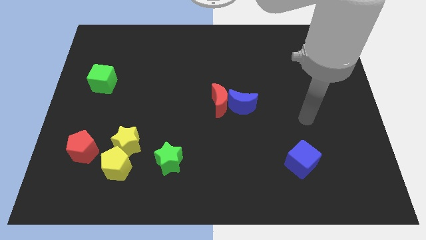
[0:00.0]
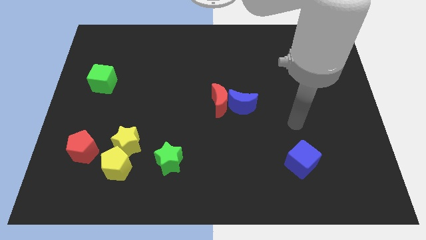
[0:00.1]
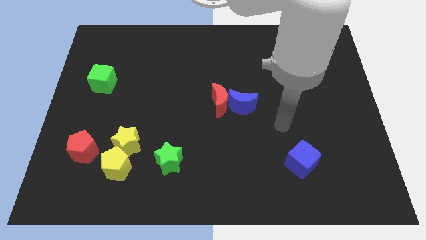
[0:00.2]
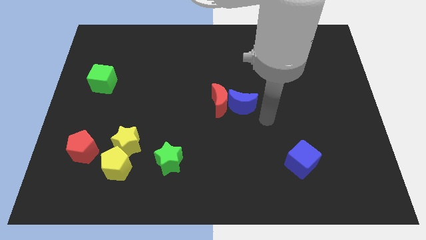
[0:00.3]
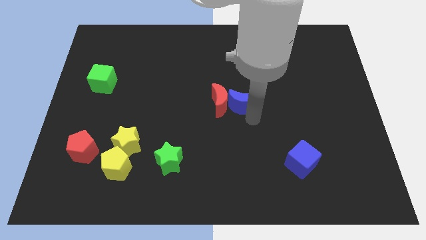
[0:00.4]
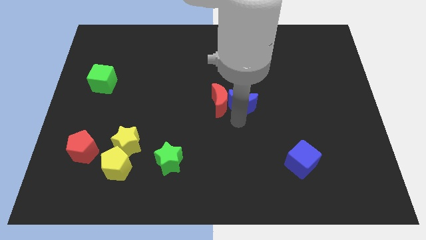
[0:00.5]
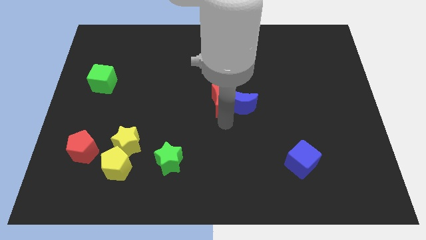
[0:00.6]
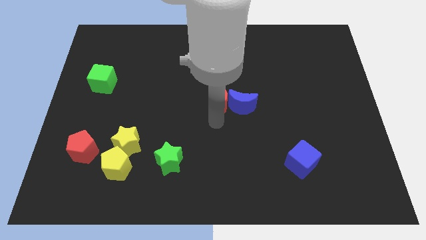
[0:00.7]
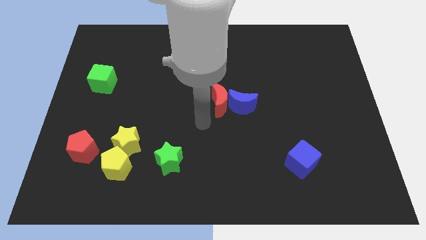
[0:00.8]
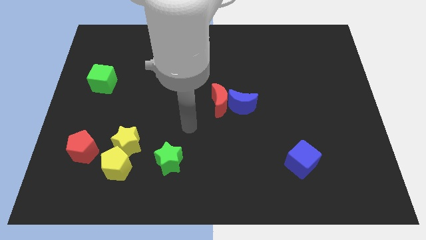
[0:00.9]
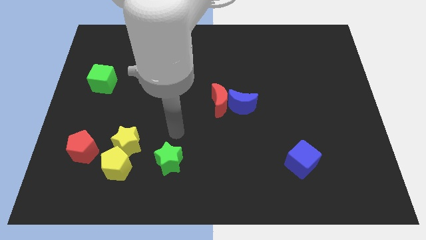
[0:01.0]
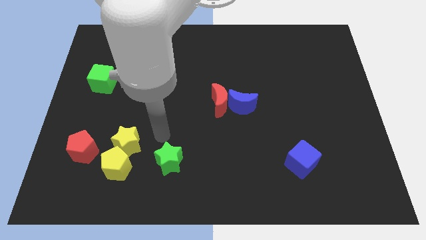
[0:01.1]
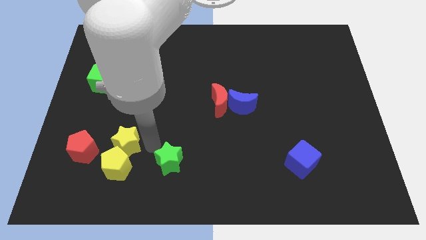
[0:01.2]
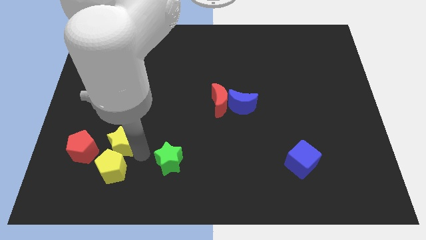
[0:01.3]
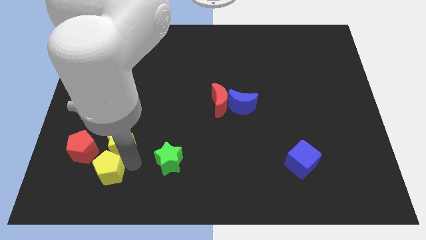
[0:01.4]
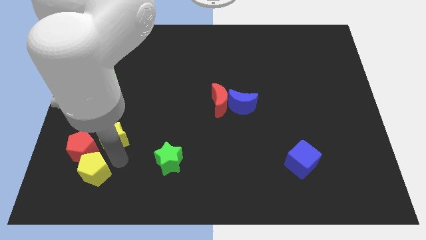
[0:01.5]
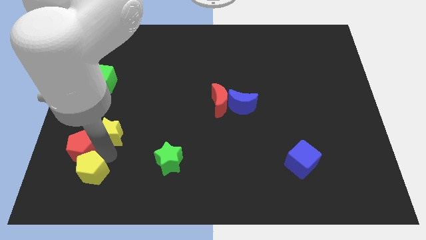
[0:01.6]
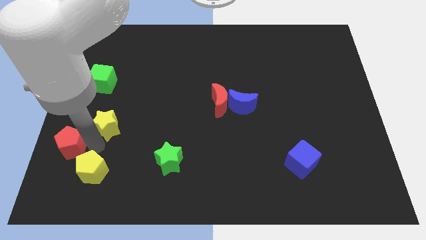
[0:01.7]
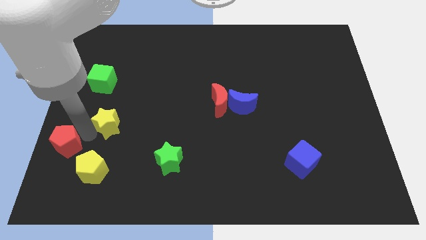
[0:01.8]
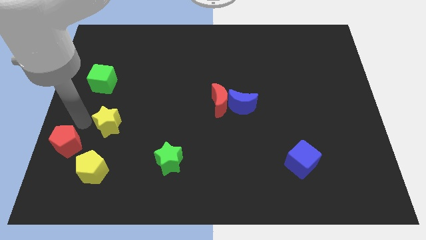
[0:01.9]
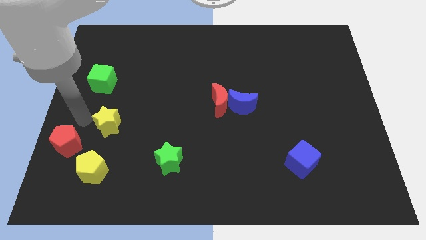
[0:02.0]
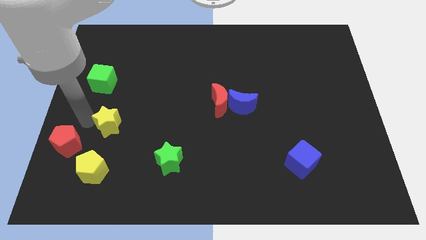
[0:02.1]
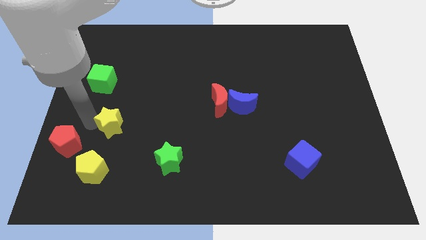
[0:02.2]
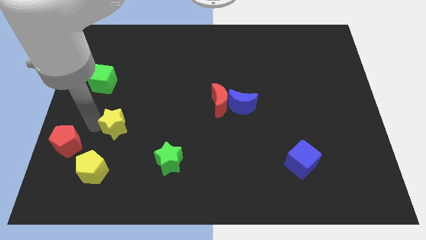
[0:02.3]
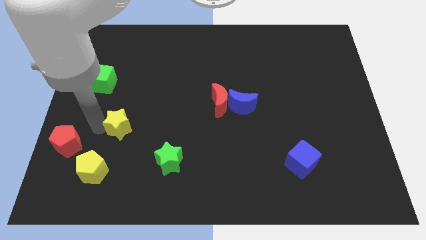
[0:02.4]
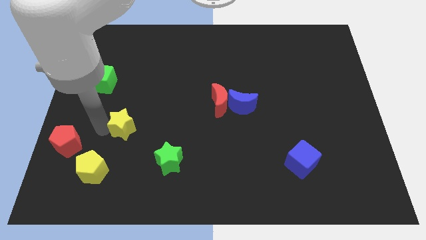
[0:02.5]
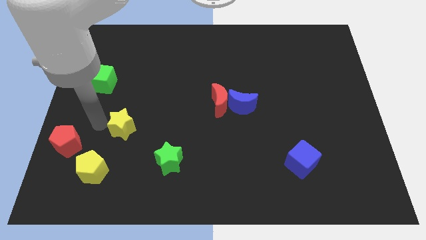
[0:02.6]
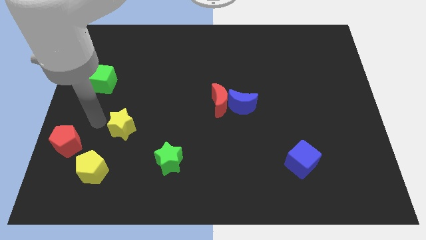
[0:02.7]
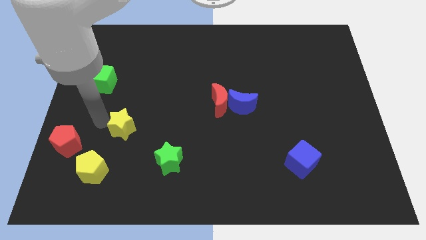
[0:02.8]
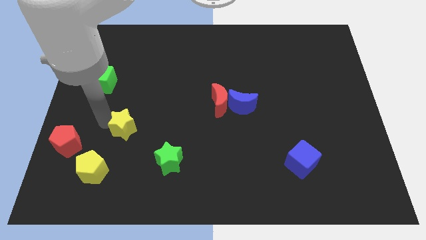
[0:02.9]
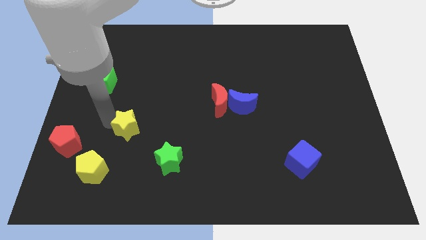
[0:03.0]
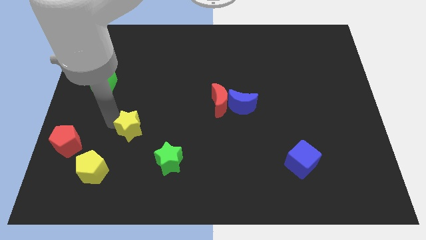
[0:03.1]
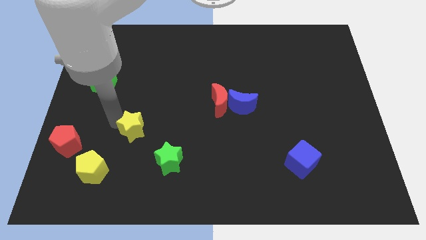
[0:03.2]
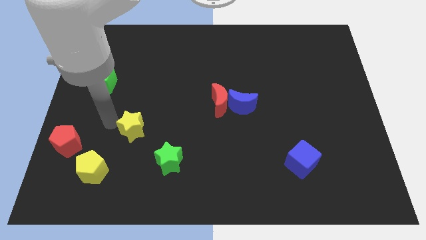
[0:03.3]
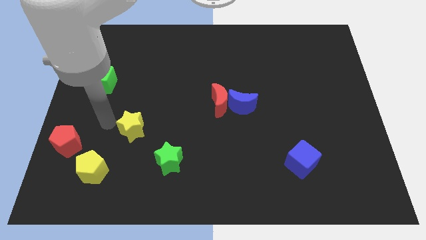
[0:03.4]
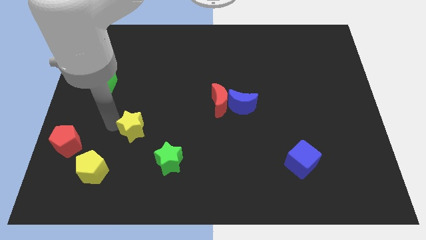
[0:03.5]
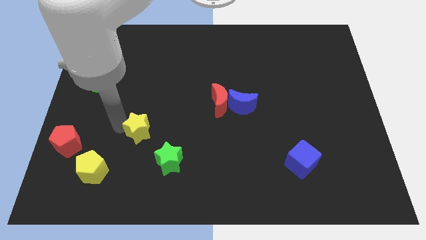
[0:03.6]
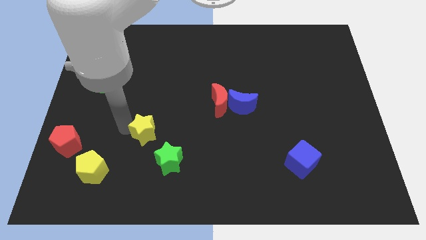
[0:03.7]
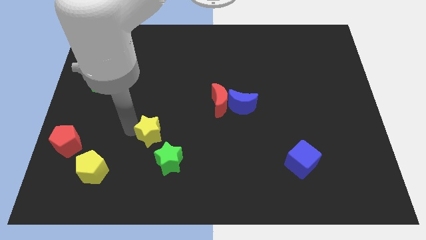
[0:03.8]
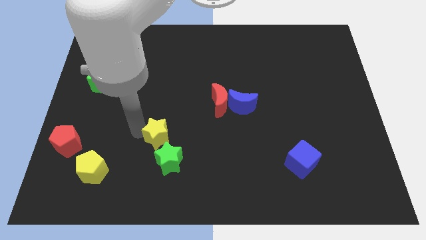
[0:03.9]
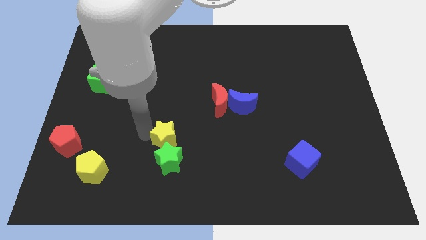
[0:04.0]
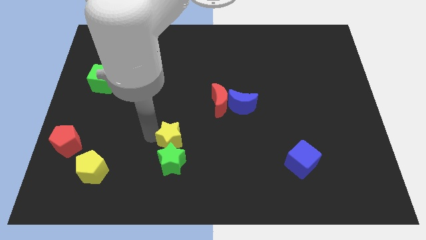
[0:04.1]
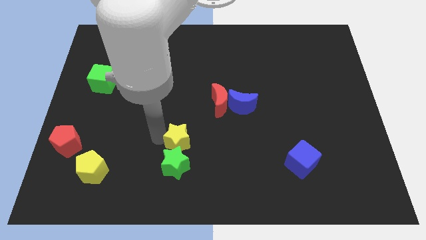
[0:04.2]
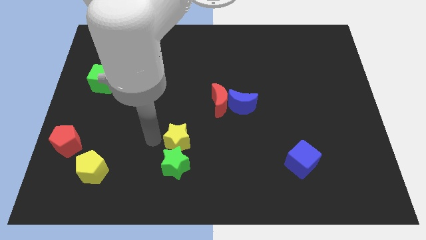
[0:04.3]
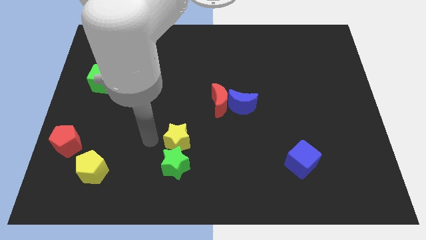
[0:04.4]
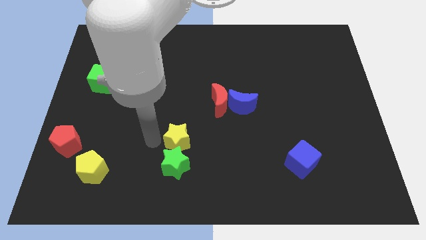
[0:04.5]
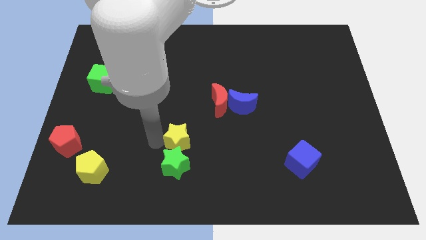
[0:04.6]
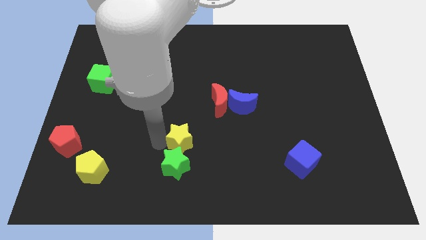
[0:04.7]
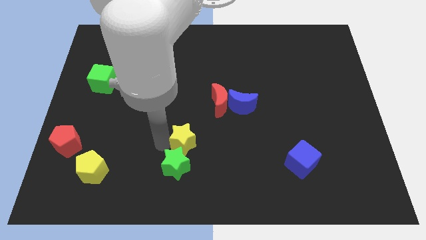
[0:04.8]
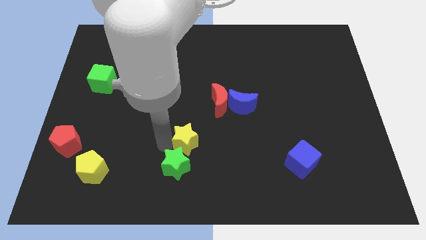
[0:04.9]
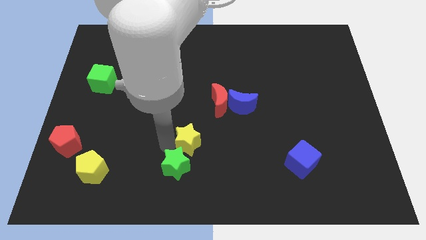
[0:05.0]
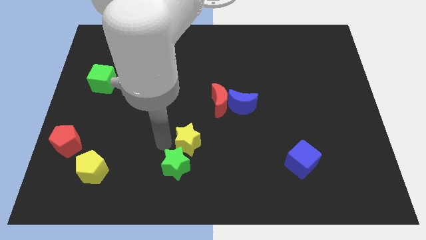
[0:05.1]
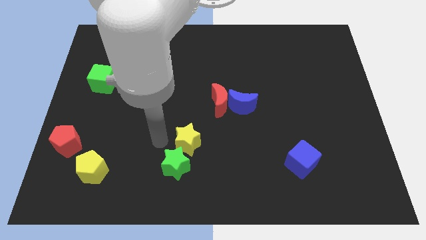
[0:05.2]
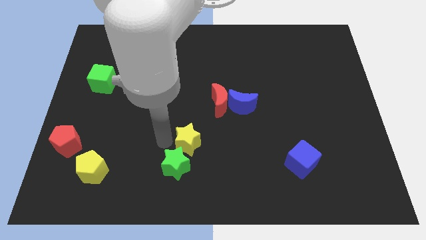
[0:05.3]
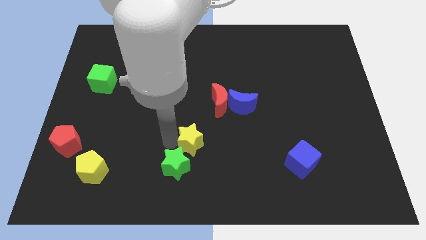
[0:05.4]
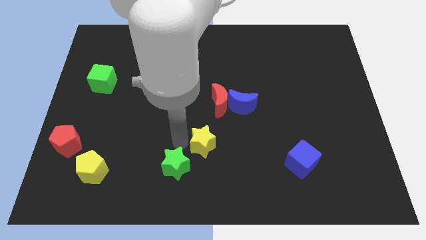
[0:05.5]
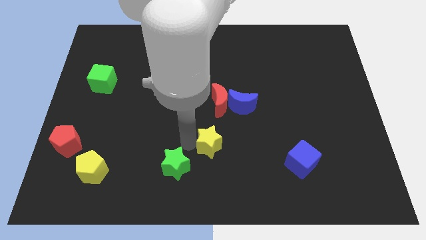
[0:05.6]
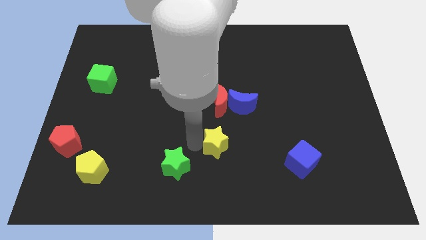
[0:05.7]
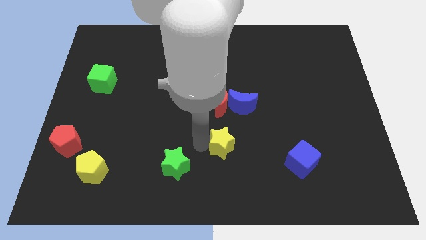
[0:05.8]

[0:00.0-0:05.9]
move the yellow star to the right

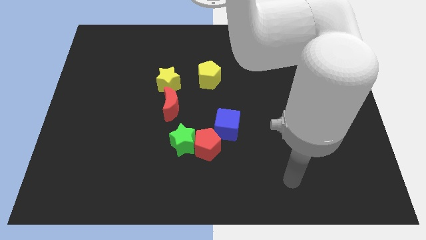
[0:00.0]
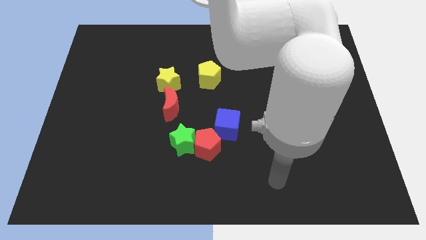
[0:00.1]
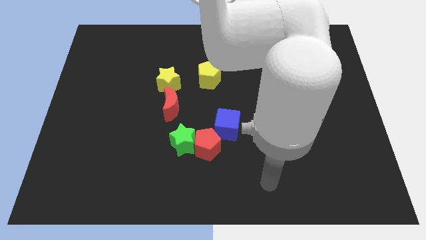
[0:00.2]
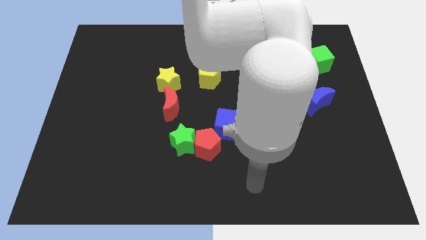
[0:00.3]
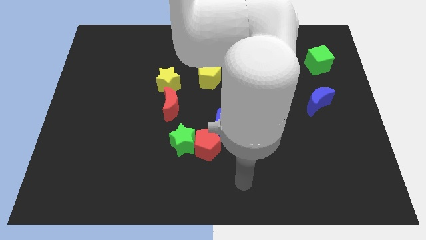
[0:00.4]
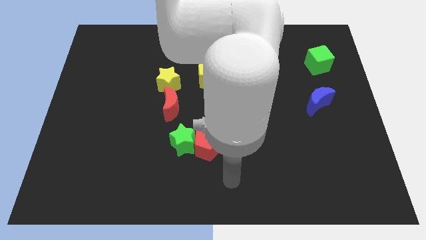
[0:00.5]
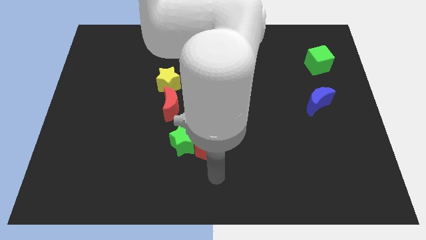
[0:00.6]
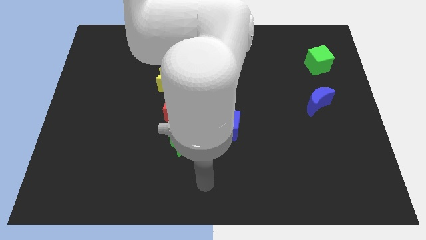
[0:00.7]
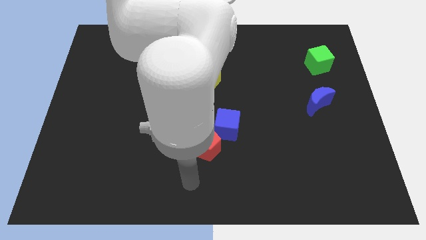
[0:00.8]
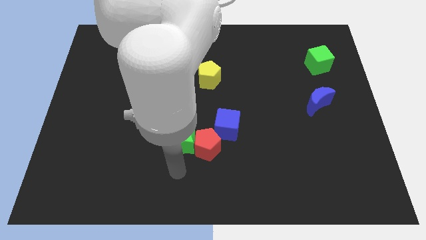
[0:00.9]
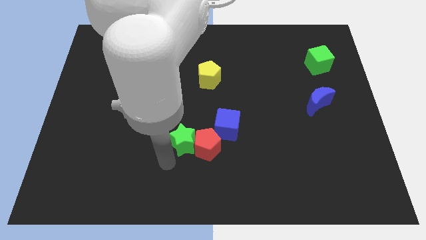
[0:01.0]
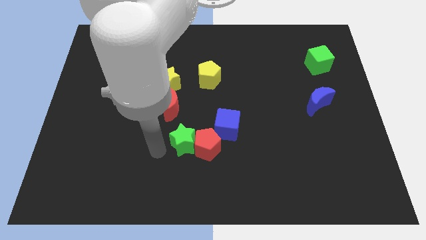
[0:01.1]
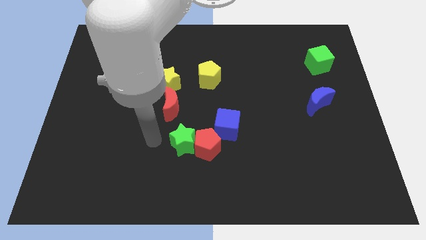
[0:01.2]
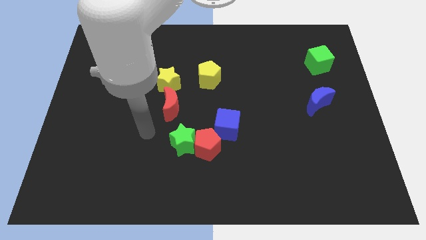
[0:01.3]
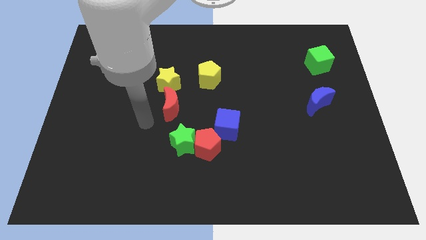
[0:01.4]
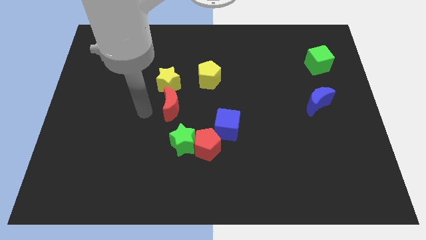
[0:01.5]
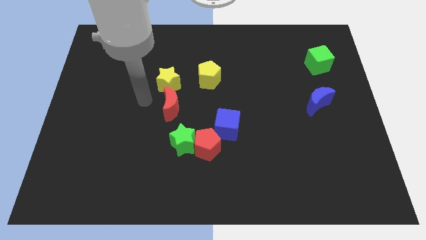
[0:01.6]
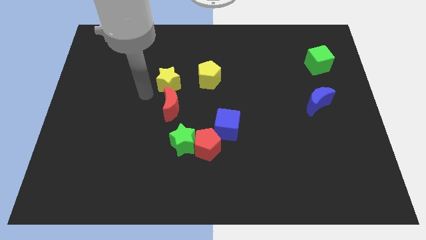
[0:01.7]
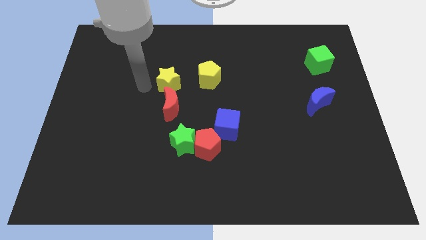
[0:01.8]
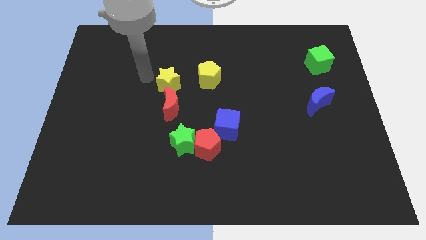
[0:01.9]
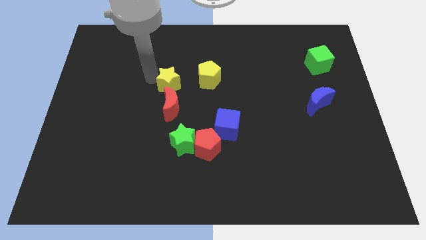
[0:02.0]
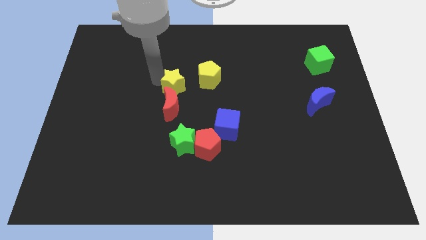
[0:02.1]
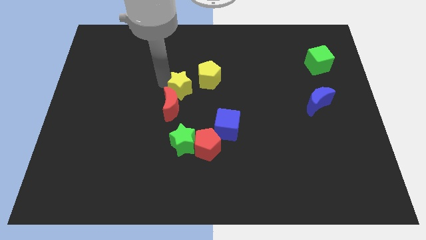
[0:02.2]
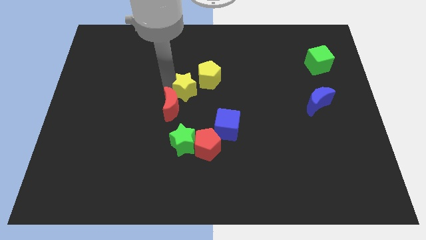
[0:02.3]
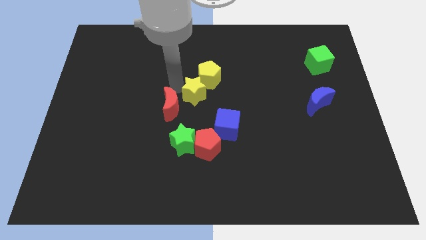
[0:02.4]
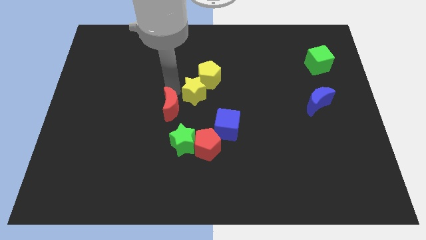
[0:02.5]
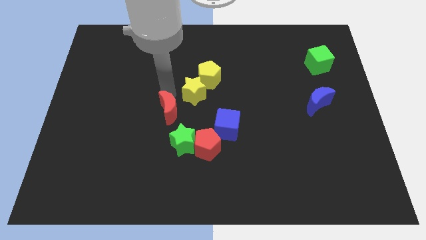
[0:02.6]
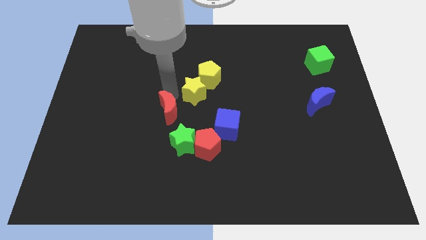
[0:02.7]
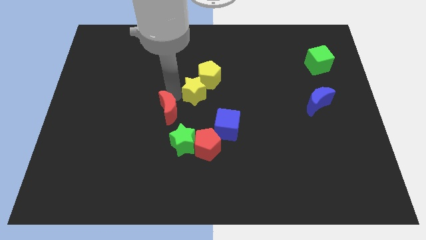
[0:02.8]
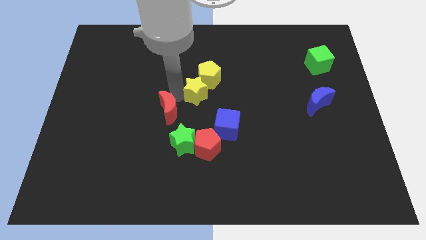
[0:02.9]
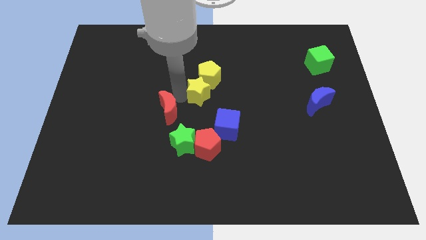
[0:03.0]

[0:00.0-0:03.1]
push the yellow star a bit to the right
